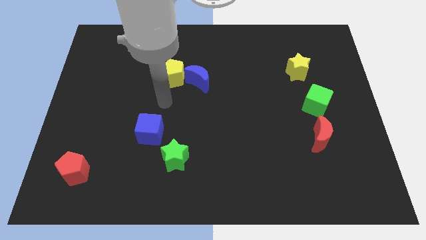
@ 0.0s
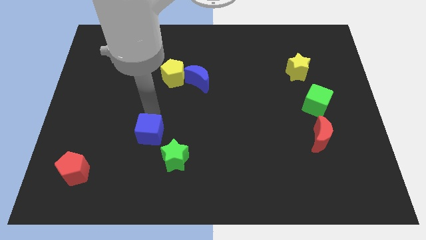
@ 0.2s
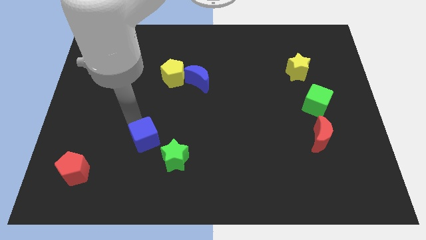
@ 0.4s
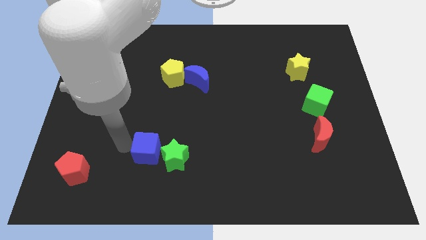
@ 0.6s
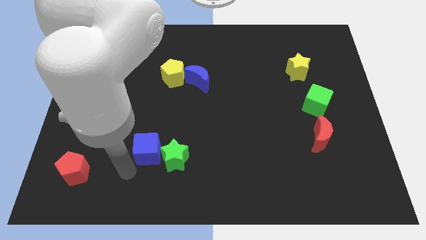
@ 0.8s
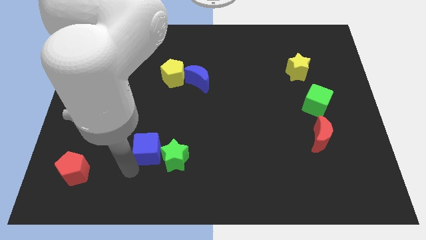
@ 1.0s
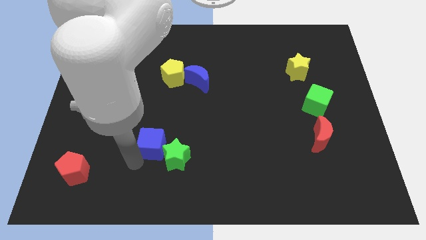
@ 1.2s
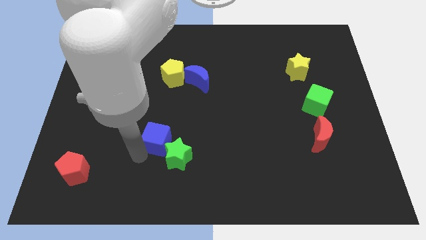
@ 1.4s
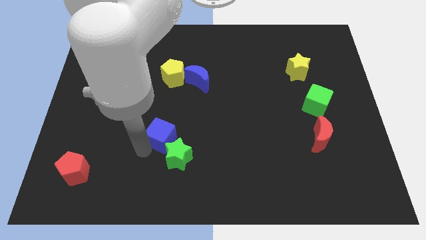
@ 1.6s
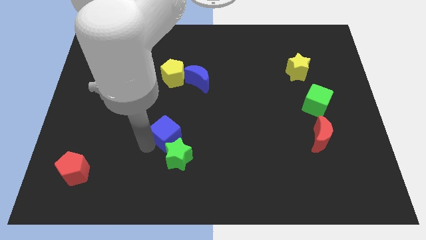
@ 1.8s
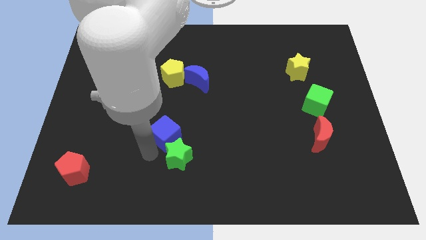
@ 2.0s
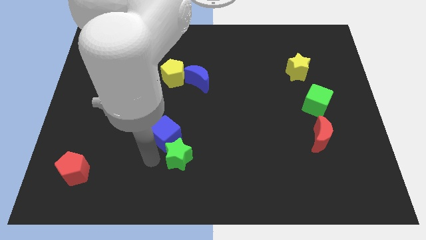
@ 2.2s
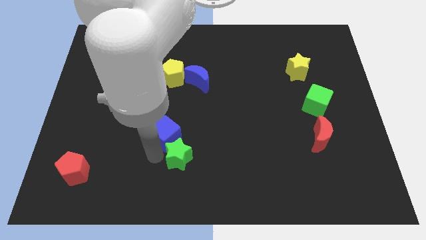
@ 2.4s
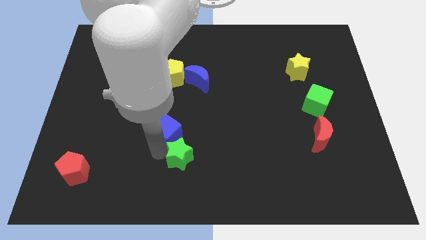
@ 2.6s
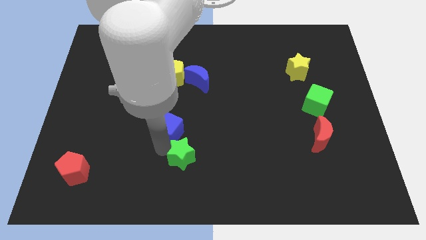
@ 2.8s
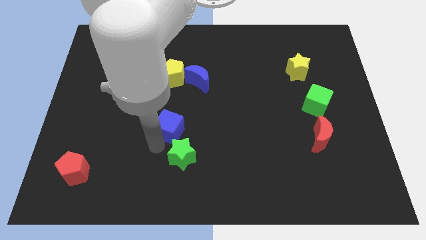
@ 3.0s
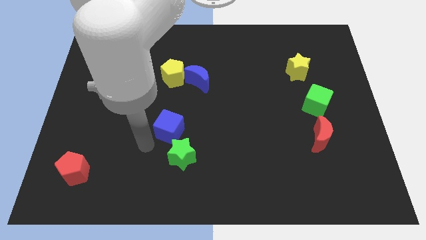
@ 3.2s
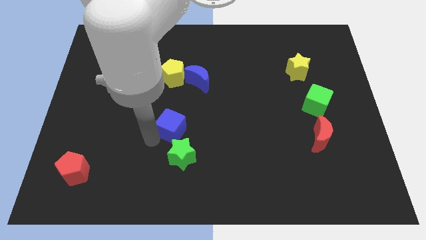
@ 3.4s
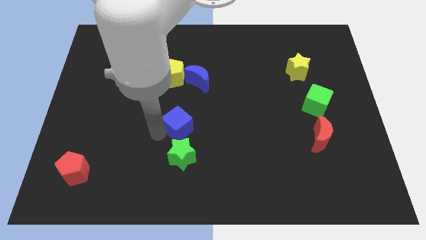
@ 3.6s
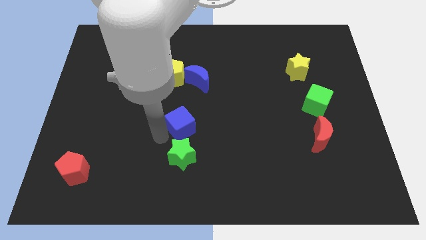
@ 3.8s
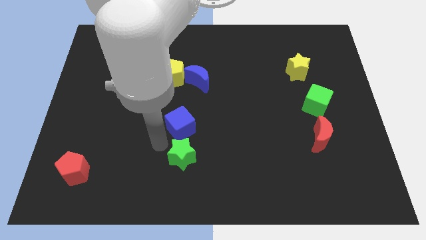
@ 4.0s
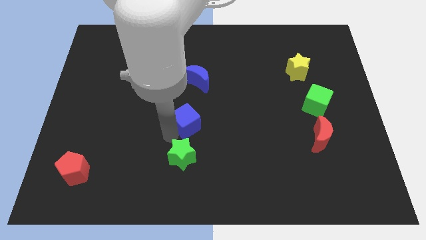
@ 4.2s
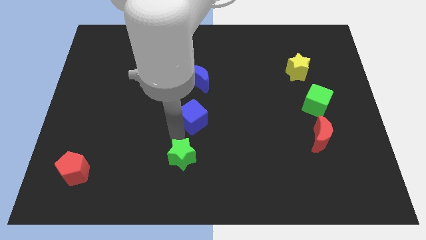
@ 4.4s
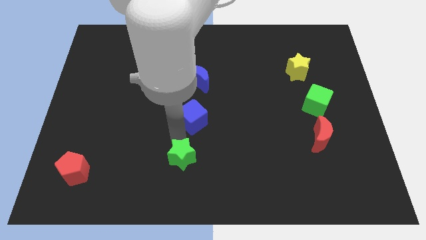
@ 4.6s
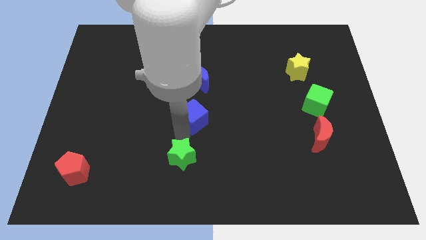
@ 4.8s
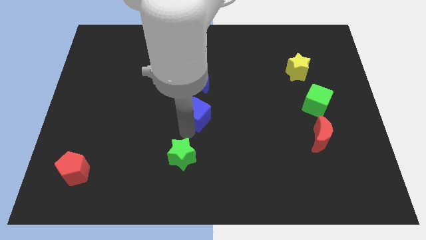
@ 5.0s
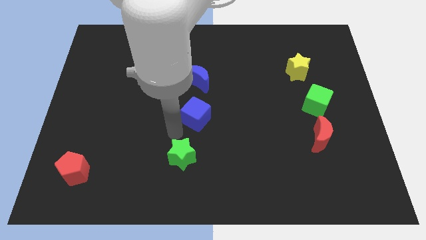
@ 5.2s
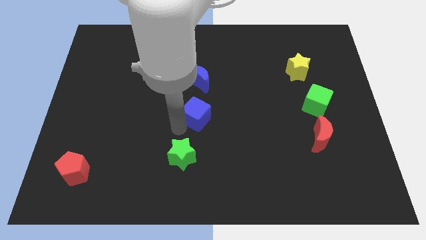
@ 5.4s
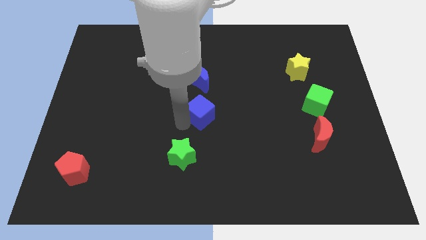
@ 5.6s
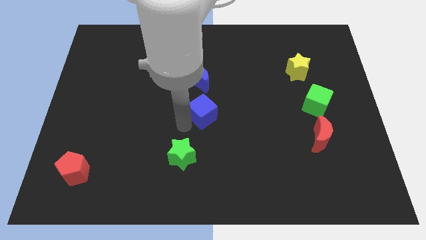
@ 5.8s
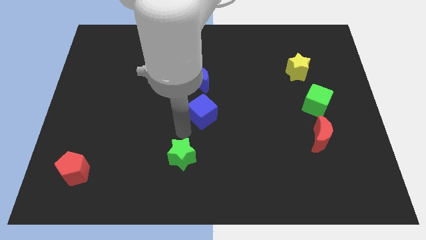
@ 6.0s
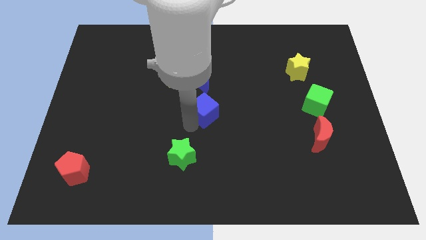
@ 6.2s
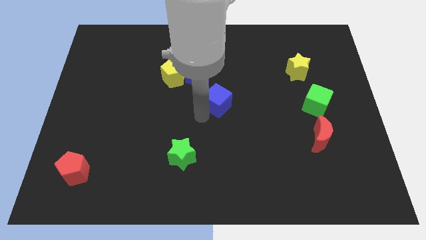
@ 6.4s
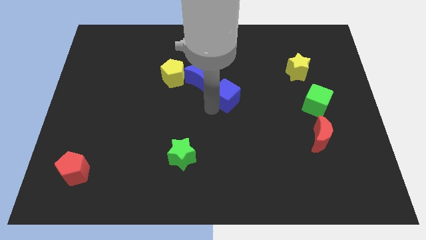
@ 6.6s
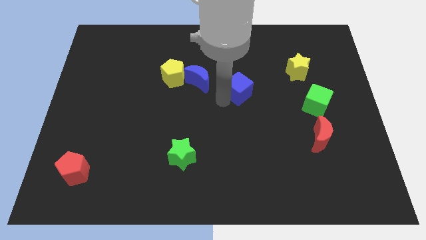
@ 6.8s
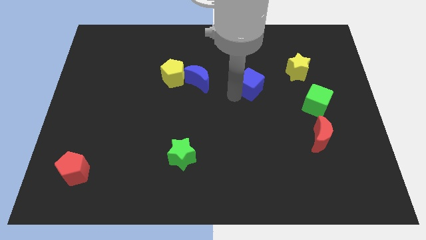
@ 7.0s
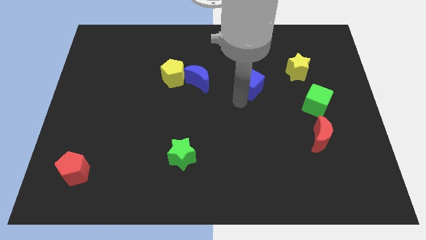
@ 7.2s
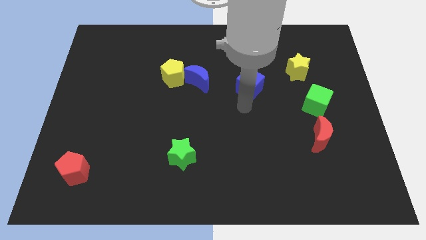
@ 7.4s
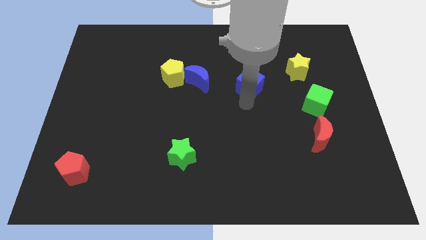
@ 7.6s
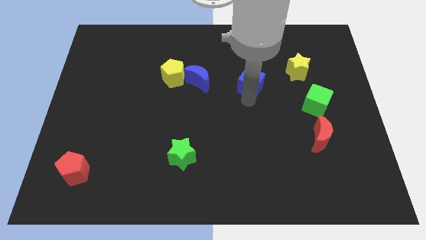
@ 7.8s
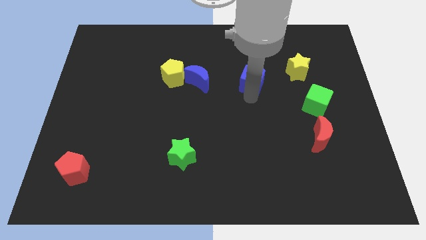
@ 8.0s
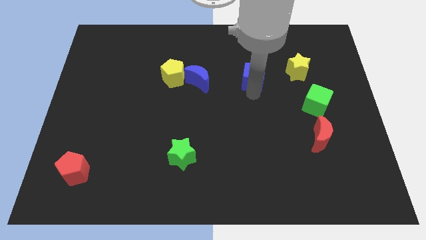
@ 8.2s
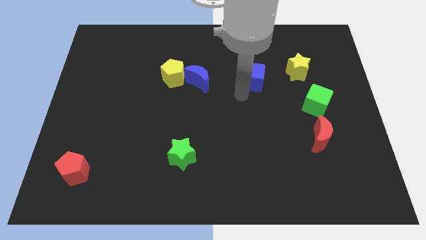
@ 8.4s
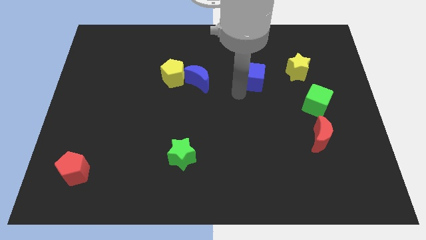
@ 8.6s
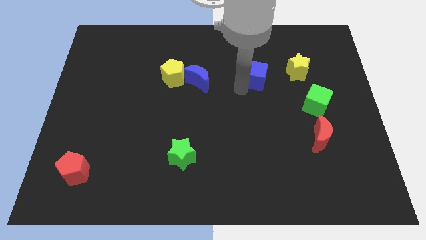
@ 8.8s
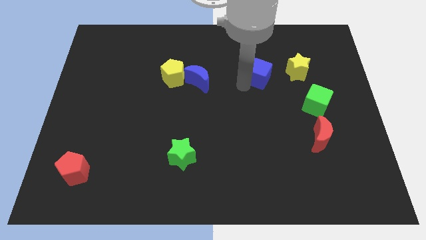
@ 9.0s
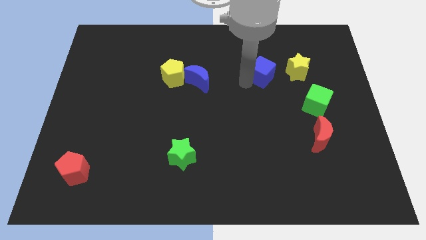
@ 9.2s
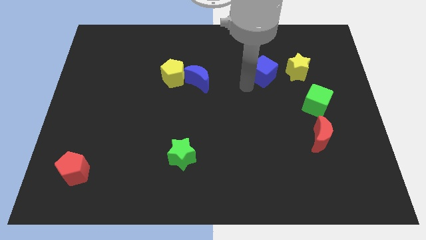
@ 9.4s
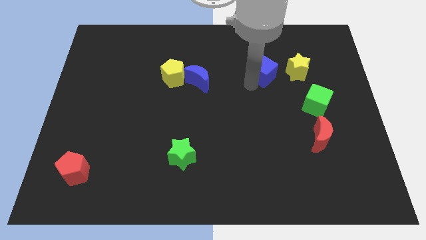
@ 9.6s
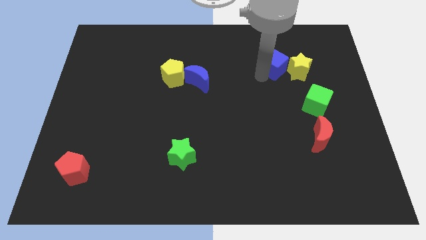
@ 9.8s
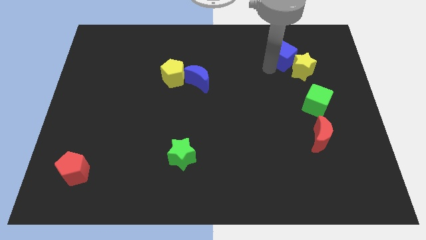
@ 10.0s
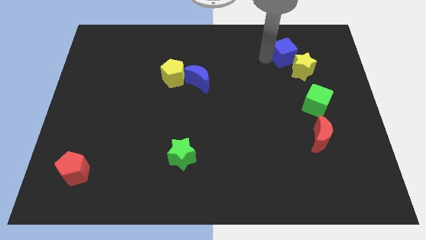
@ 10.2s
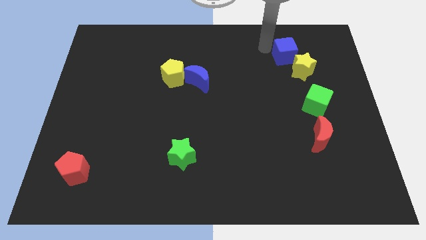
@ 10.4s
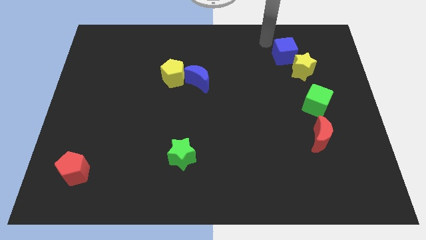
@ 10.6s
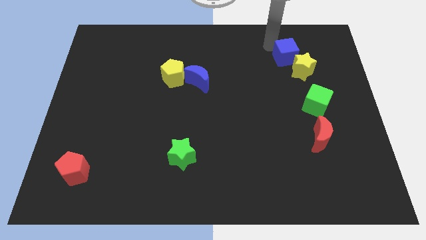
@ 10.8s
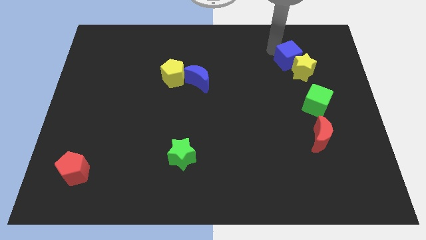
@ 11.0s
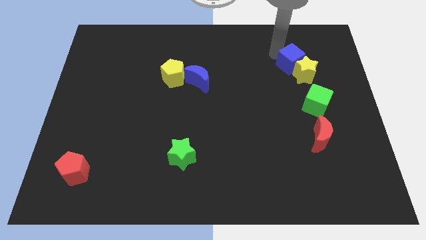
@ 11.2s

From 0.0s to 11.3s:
put the blue cube above the green cube

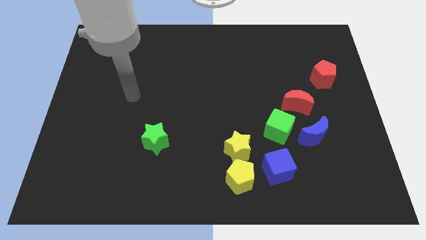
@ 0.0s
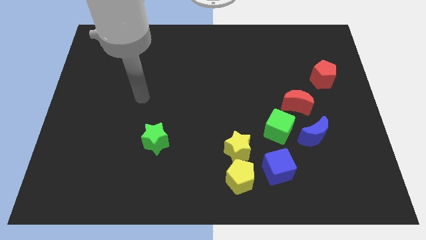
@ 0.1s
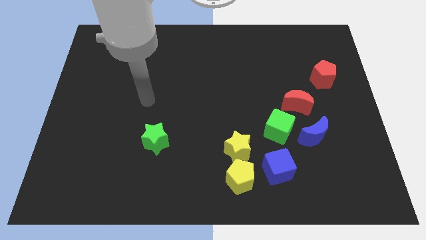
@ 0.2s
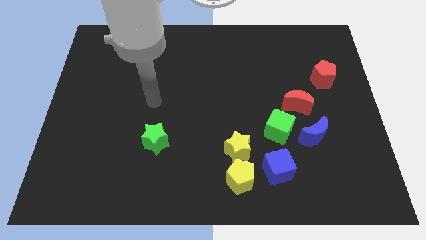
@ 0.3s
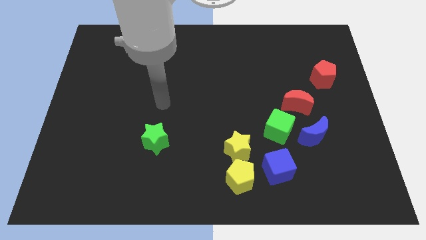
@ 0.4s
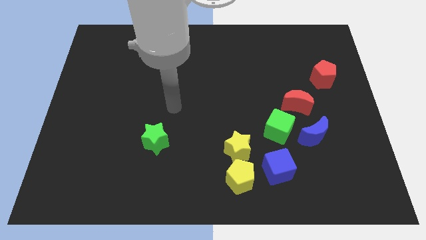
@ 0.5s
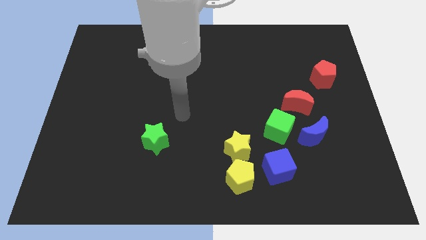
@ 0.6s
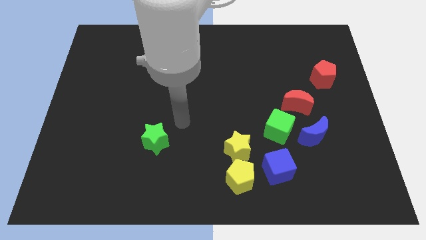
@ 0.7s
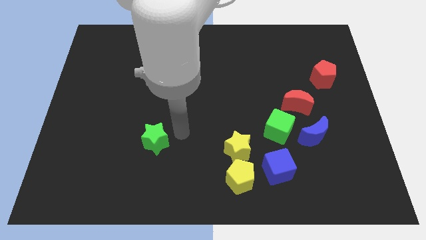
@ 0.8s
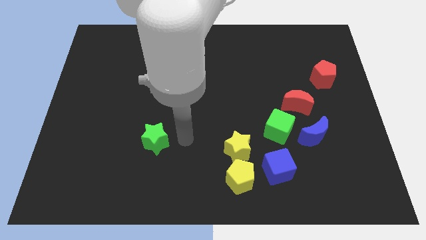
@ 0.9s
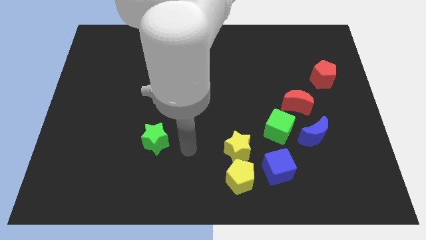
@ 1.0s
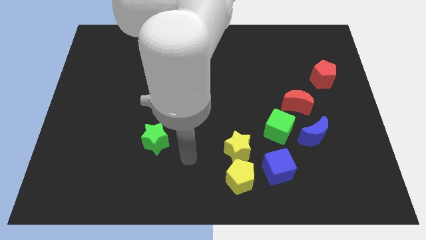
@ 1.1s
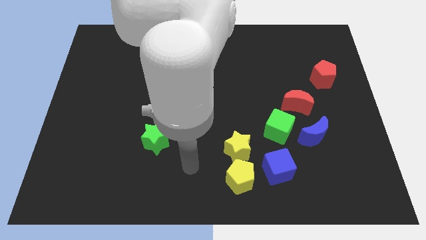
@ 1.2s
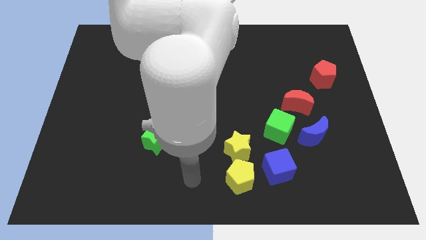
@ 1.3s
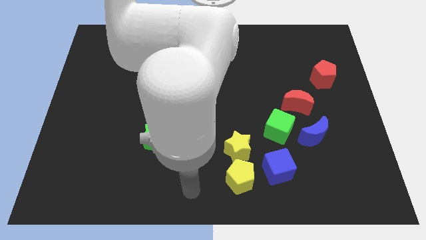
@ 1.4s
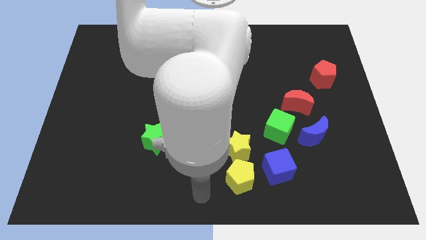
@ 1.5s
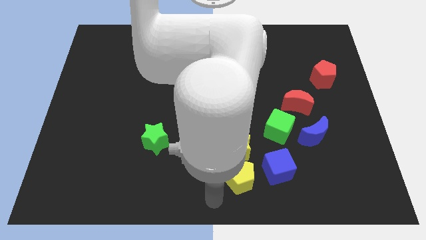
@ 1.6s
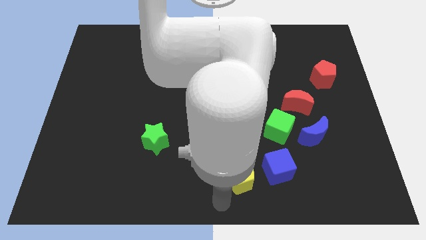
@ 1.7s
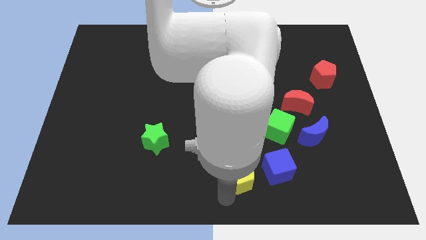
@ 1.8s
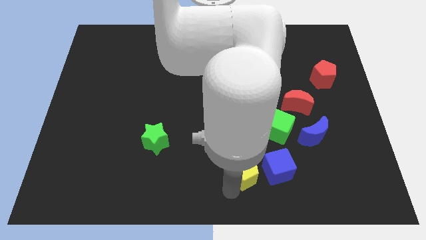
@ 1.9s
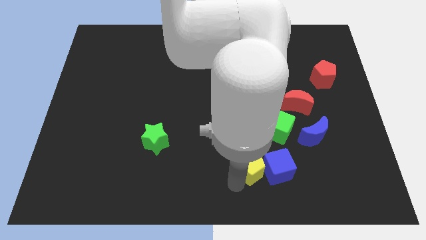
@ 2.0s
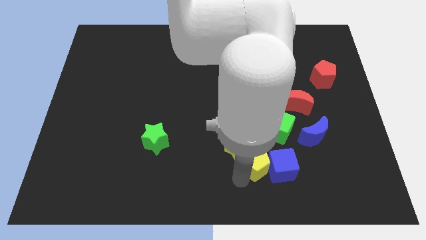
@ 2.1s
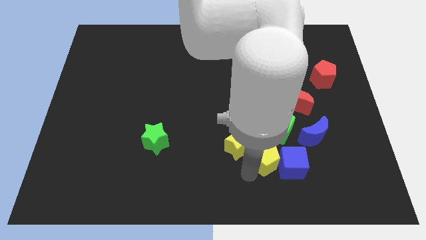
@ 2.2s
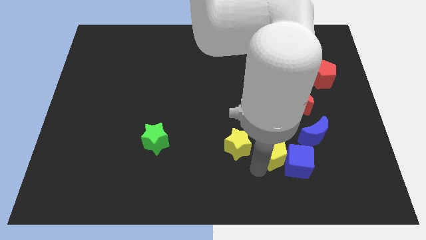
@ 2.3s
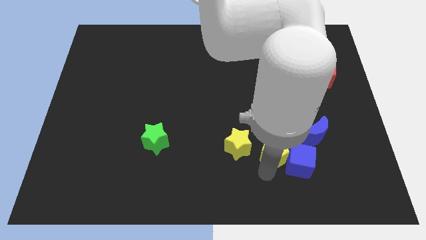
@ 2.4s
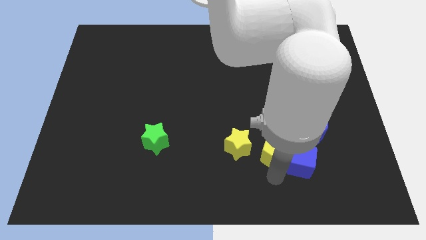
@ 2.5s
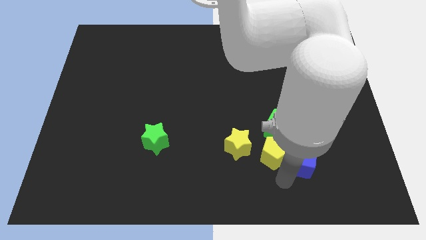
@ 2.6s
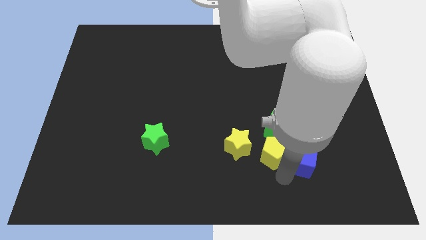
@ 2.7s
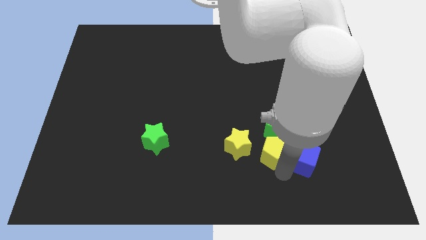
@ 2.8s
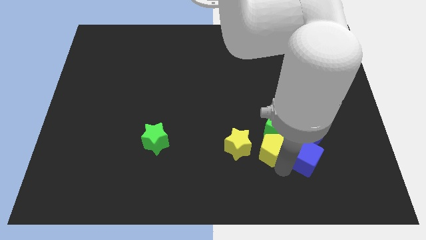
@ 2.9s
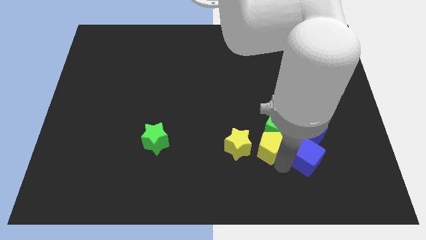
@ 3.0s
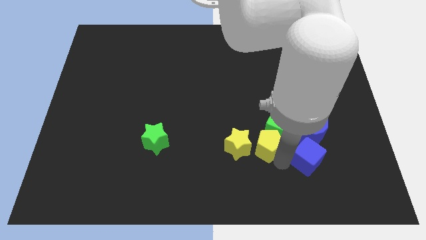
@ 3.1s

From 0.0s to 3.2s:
put the yellow pentagon to the top right side of the yellow star
